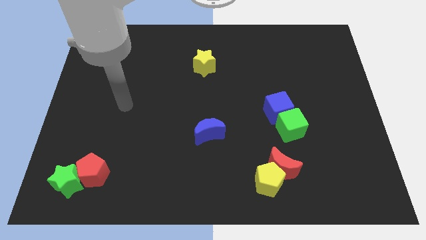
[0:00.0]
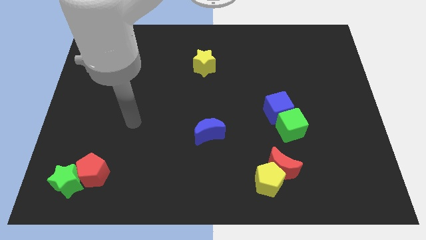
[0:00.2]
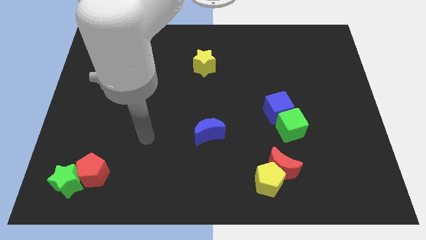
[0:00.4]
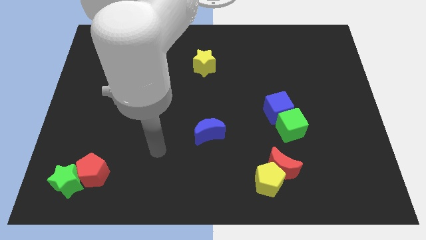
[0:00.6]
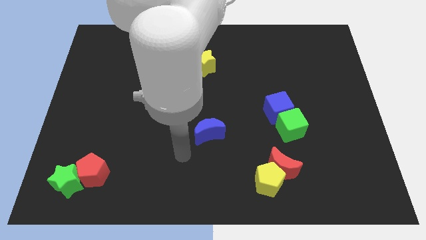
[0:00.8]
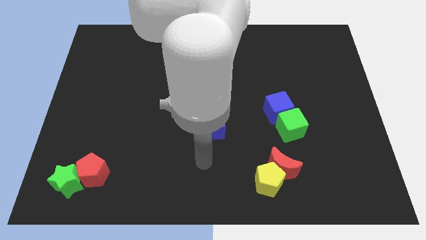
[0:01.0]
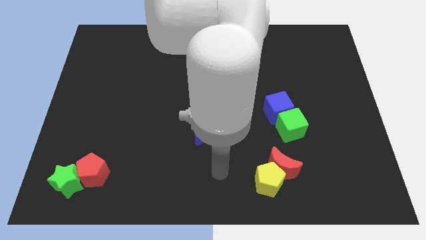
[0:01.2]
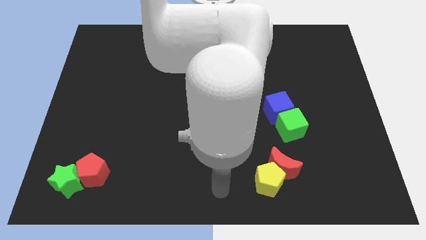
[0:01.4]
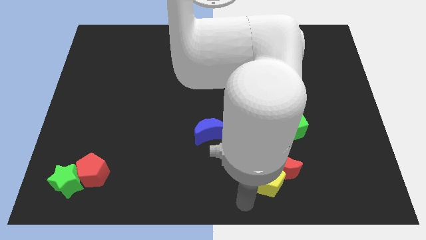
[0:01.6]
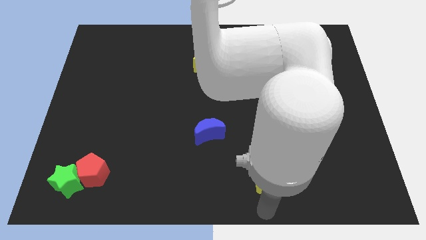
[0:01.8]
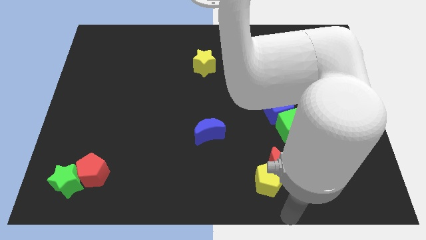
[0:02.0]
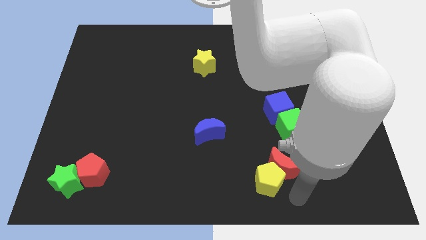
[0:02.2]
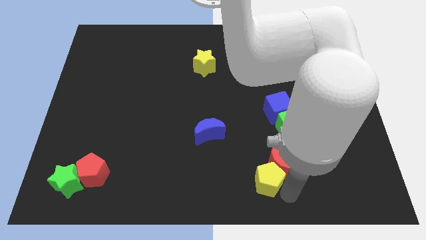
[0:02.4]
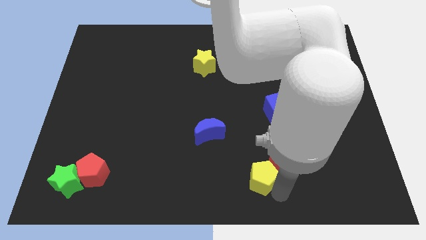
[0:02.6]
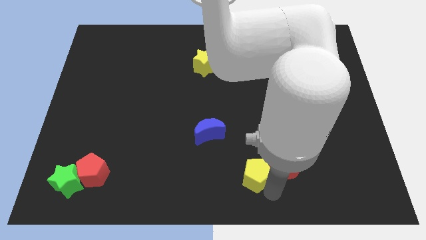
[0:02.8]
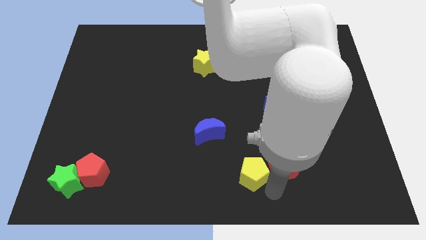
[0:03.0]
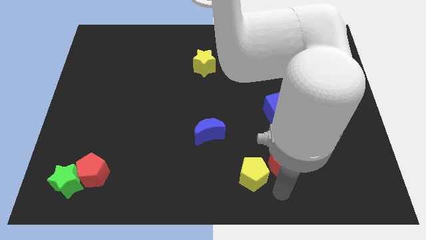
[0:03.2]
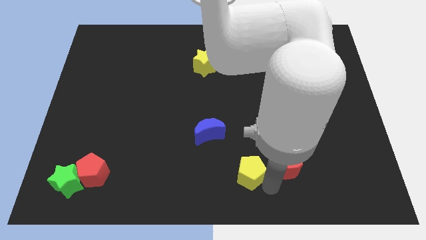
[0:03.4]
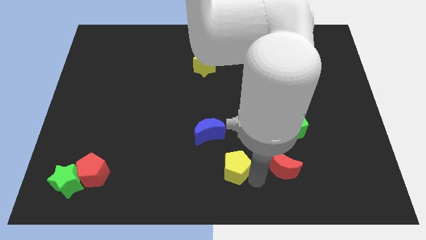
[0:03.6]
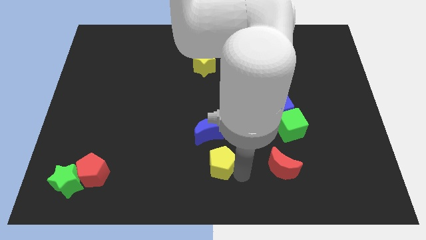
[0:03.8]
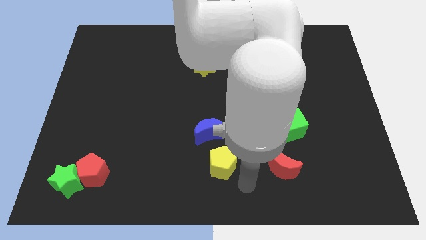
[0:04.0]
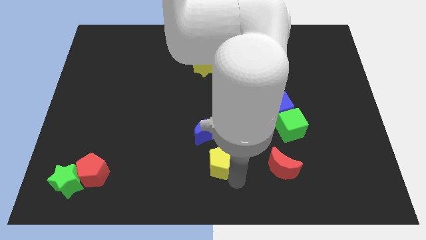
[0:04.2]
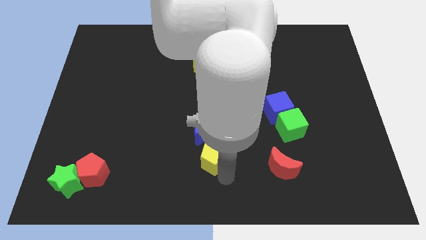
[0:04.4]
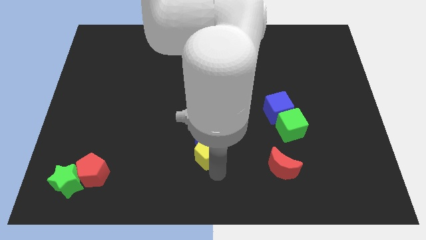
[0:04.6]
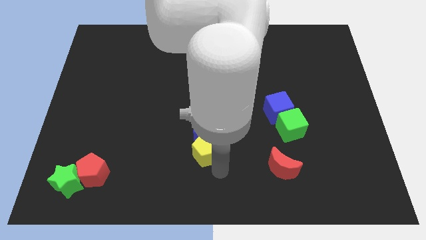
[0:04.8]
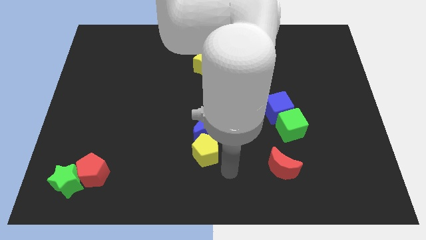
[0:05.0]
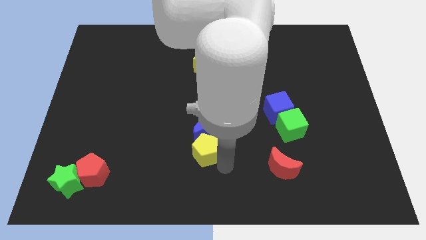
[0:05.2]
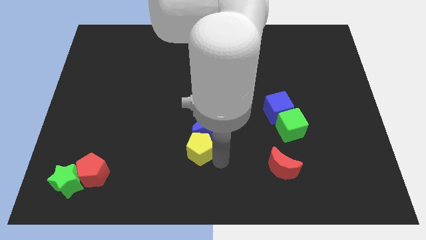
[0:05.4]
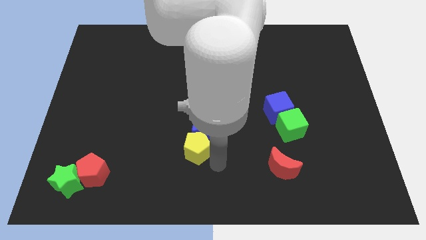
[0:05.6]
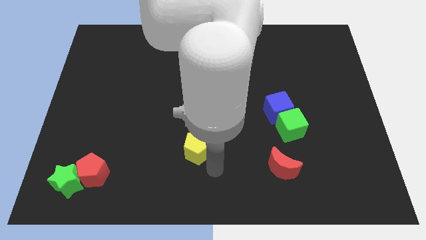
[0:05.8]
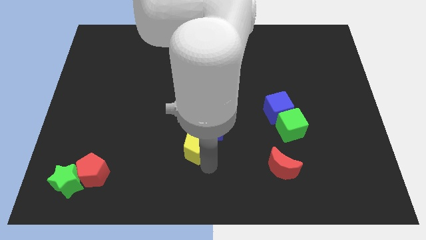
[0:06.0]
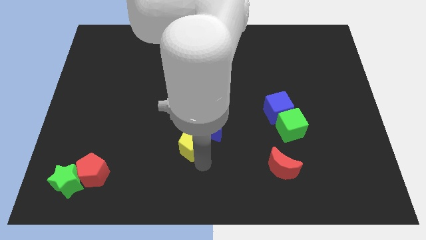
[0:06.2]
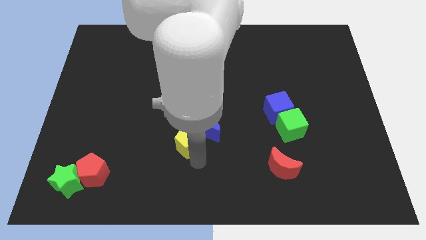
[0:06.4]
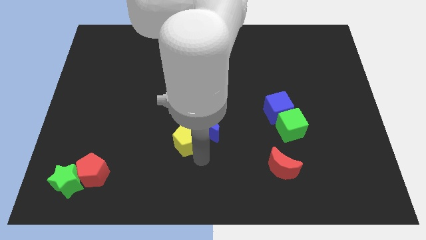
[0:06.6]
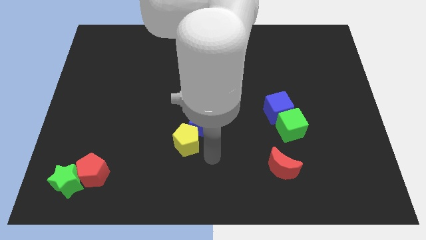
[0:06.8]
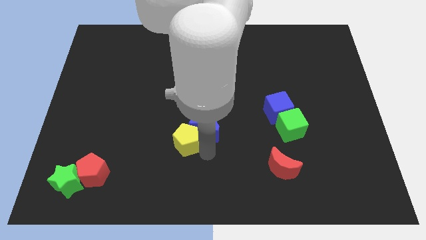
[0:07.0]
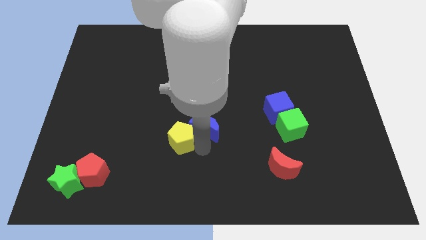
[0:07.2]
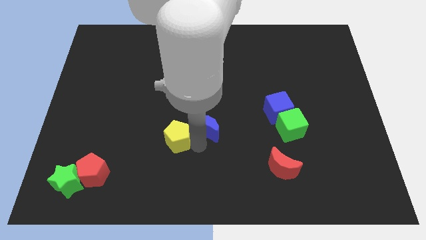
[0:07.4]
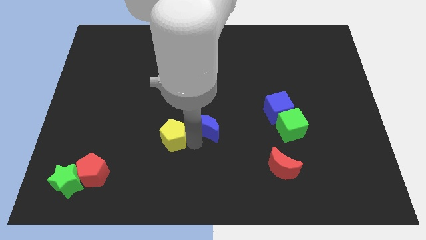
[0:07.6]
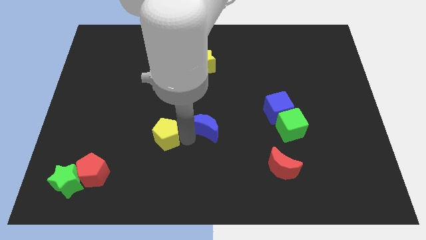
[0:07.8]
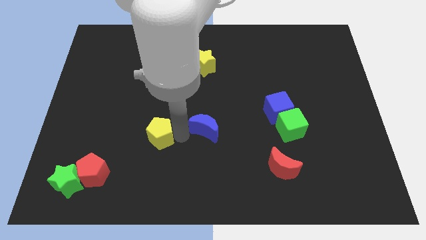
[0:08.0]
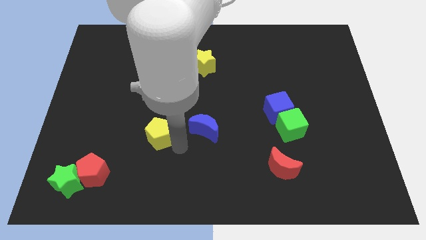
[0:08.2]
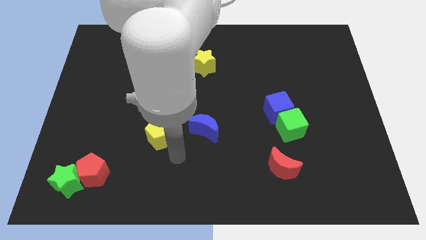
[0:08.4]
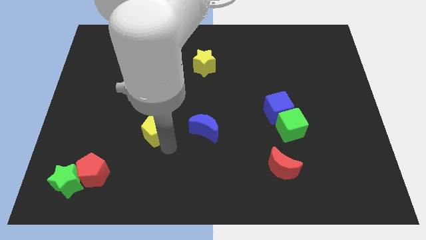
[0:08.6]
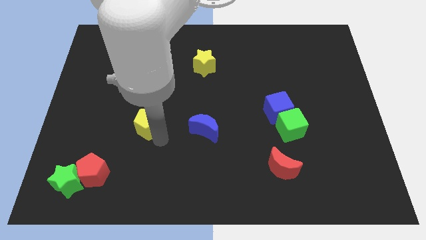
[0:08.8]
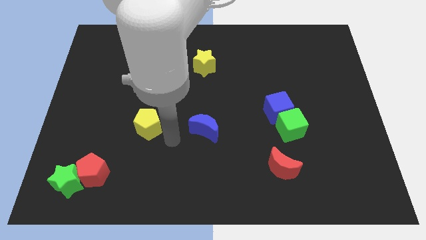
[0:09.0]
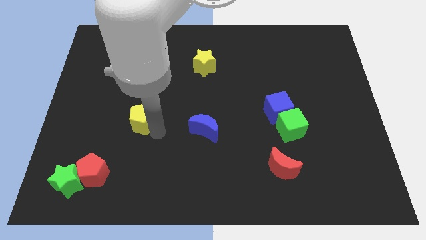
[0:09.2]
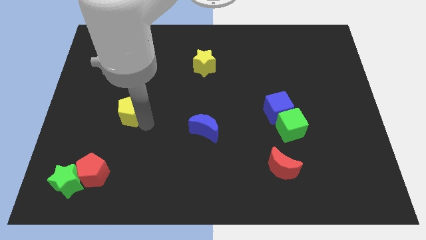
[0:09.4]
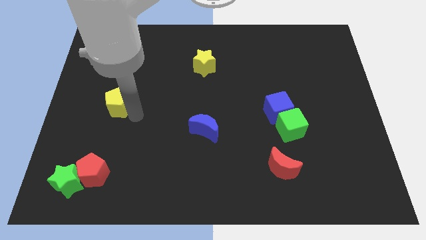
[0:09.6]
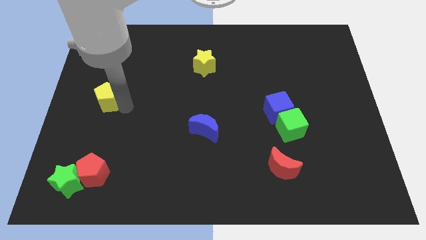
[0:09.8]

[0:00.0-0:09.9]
put the yellow pentagon to the left side of the board

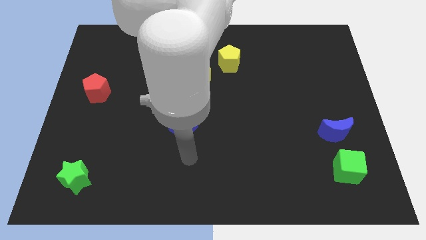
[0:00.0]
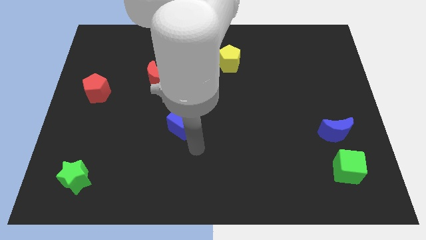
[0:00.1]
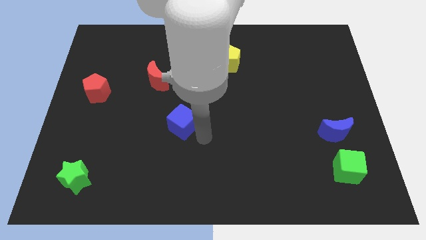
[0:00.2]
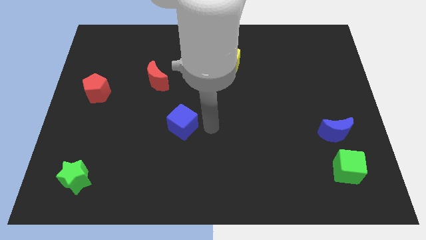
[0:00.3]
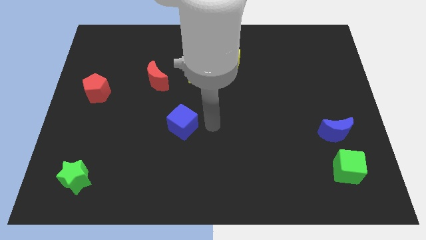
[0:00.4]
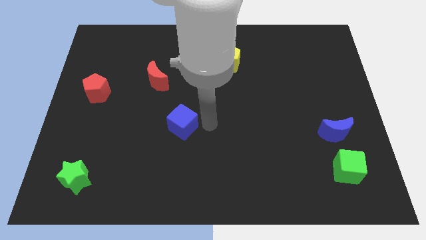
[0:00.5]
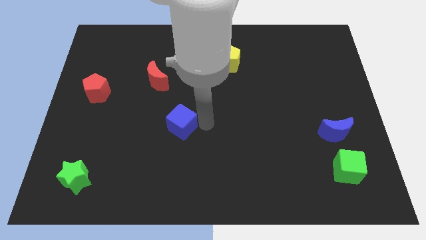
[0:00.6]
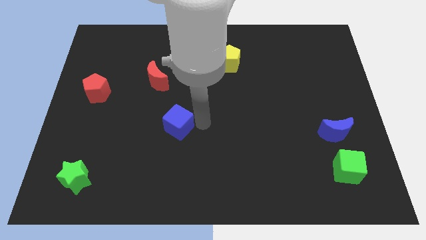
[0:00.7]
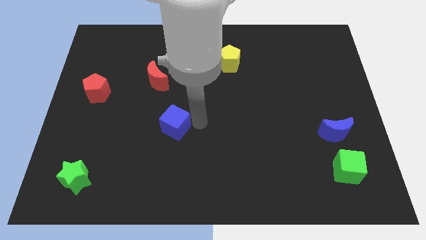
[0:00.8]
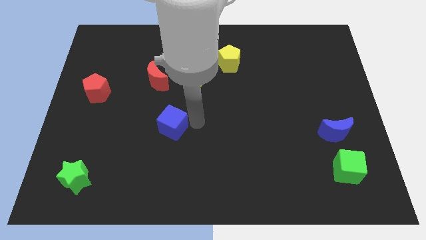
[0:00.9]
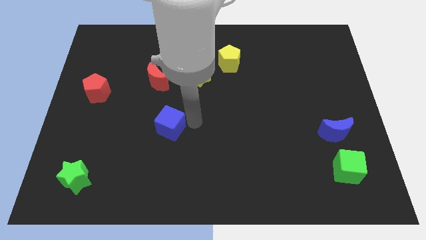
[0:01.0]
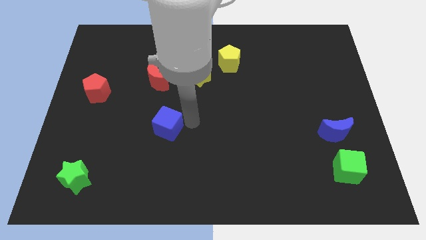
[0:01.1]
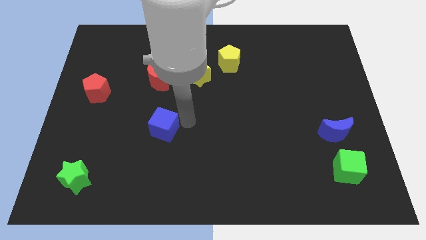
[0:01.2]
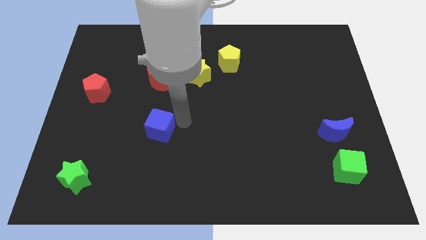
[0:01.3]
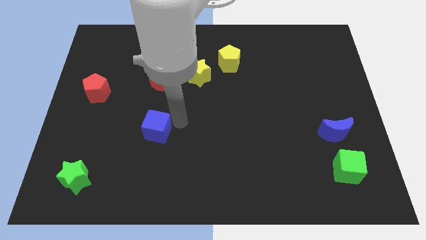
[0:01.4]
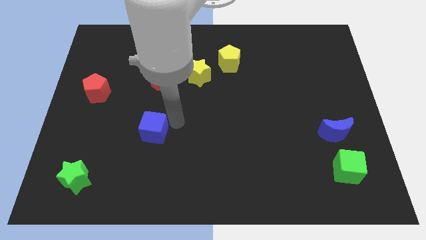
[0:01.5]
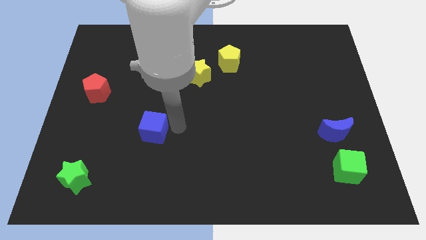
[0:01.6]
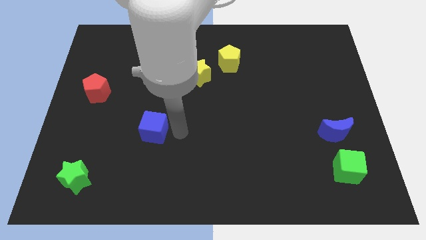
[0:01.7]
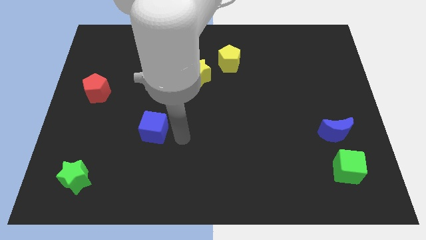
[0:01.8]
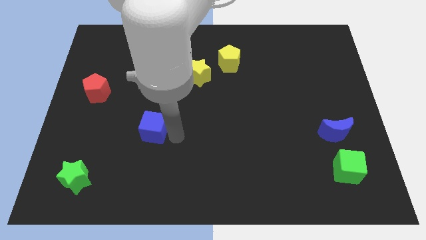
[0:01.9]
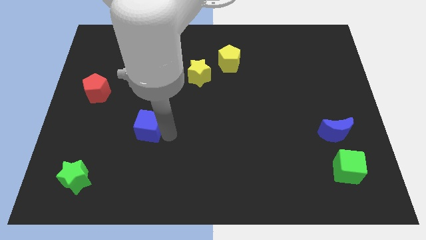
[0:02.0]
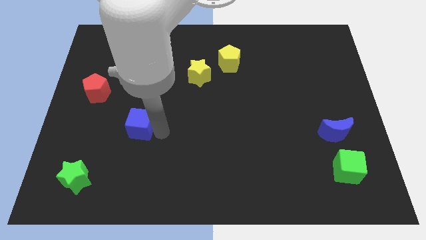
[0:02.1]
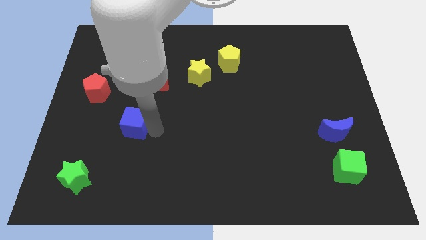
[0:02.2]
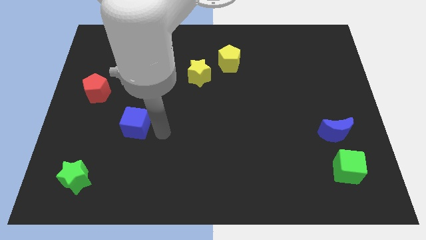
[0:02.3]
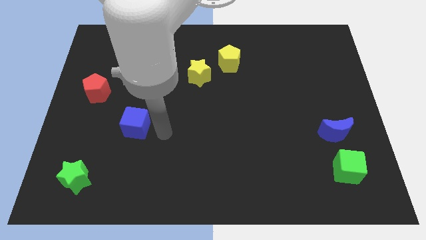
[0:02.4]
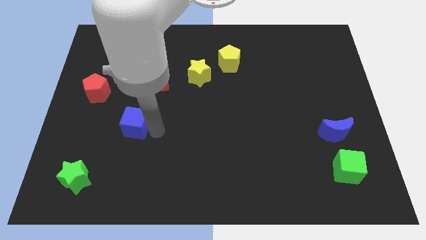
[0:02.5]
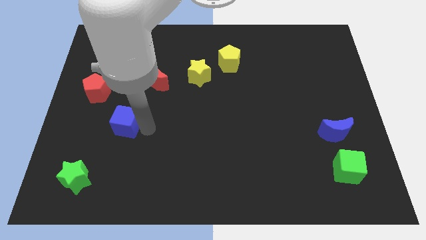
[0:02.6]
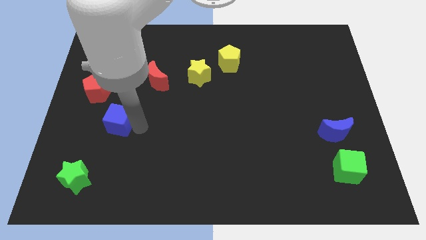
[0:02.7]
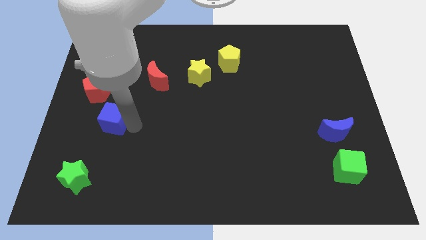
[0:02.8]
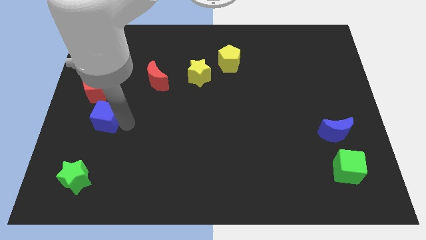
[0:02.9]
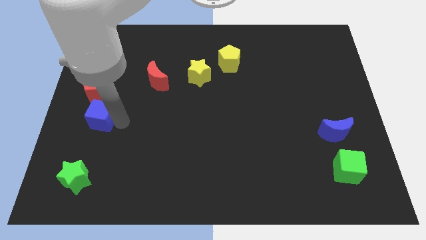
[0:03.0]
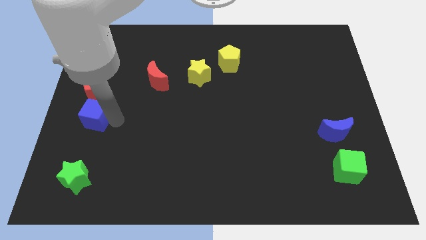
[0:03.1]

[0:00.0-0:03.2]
put the blue cube to the left side
